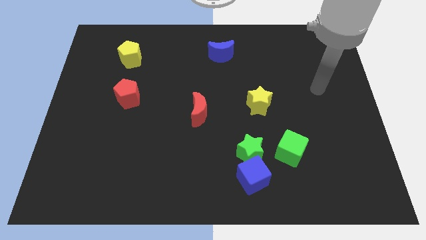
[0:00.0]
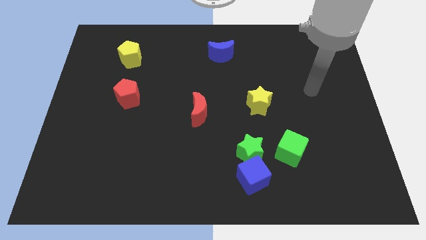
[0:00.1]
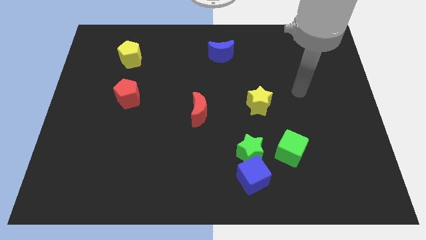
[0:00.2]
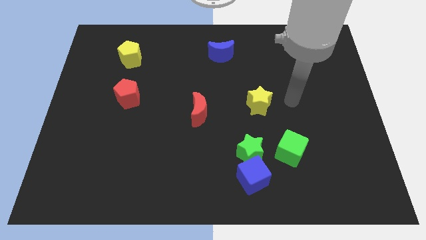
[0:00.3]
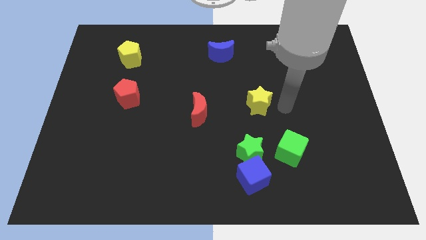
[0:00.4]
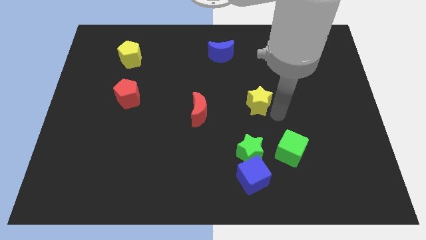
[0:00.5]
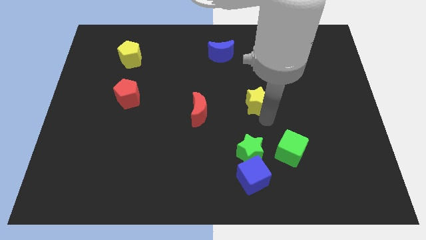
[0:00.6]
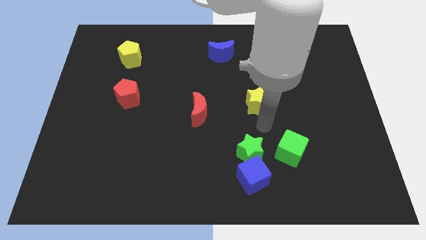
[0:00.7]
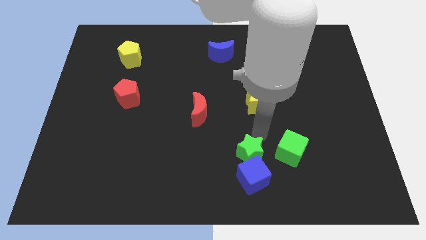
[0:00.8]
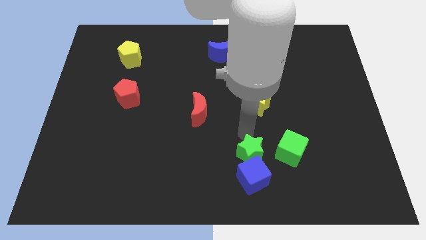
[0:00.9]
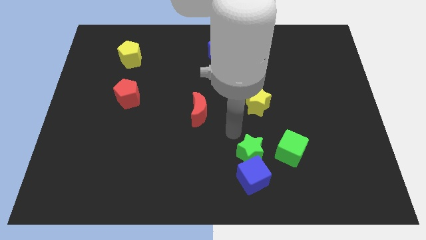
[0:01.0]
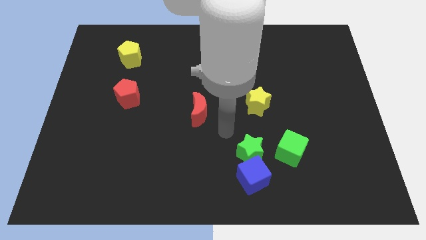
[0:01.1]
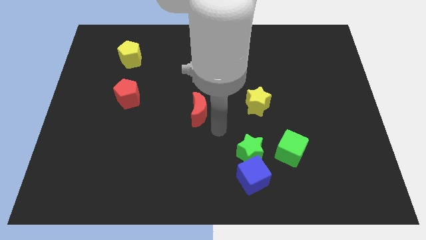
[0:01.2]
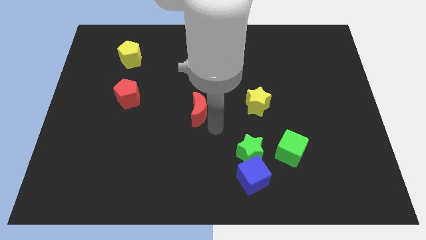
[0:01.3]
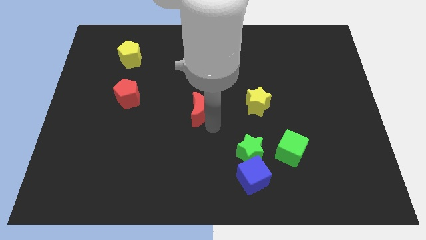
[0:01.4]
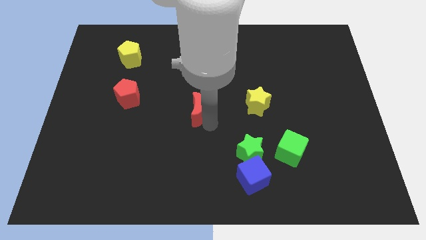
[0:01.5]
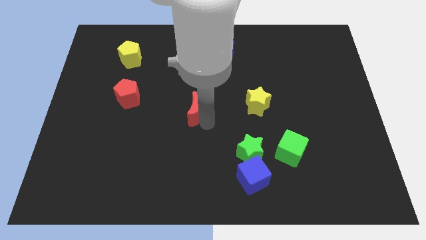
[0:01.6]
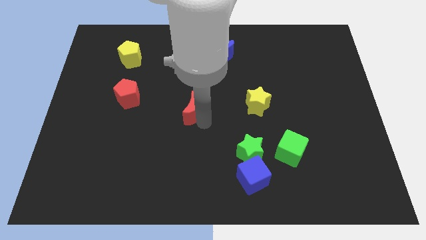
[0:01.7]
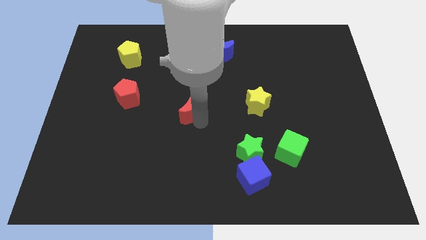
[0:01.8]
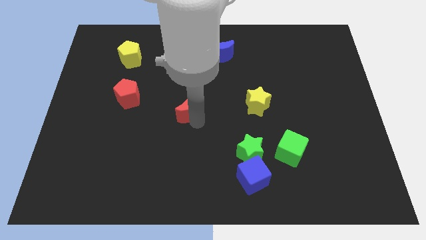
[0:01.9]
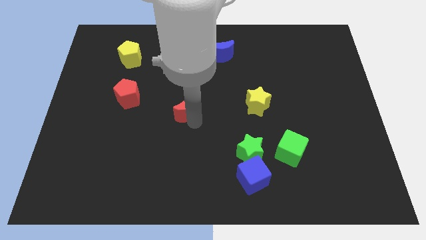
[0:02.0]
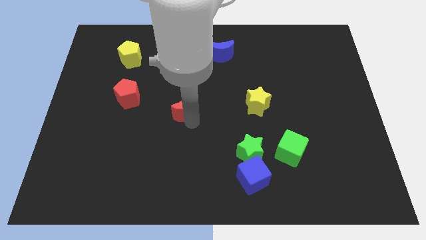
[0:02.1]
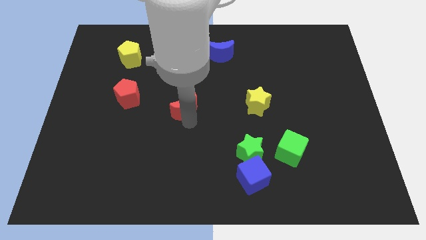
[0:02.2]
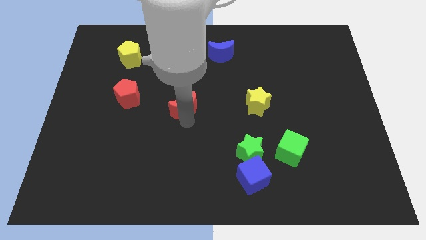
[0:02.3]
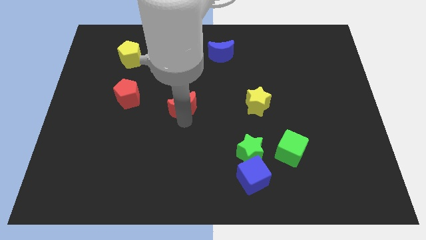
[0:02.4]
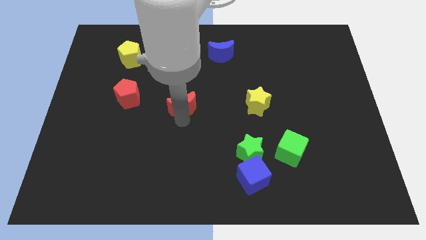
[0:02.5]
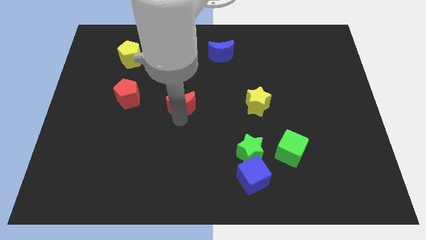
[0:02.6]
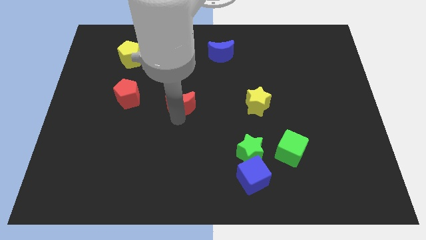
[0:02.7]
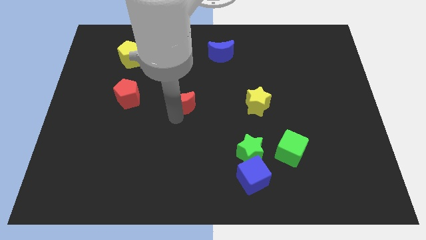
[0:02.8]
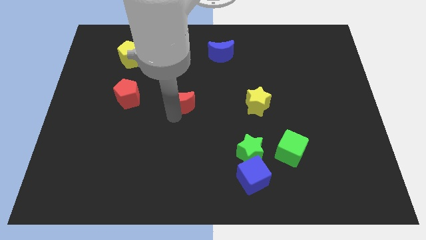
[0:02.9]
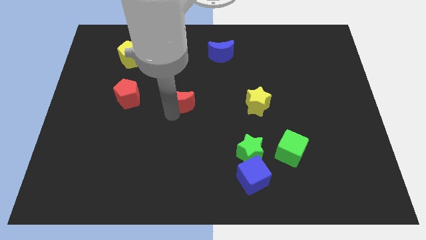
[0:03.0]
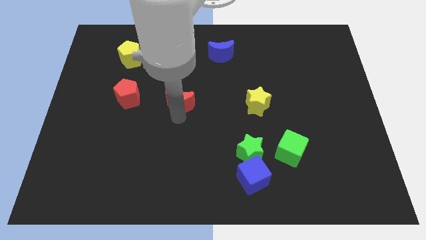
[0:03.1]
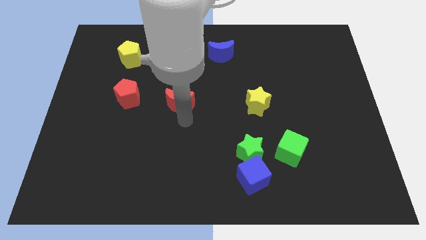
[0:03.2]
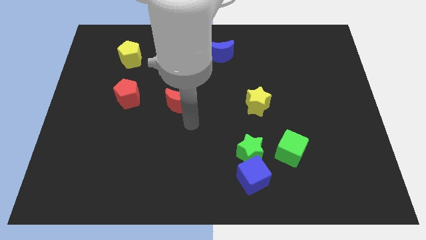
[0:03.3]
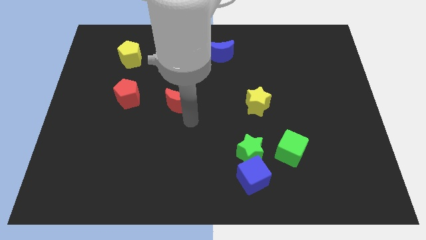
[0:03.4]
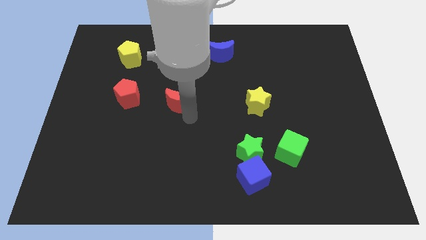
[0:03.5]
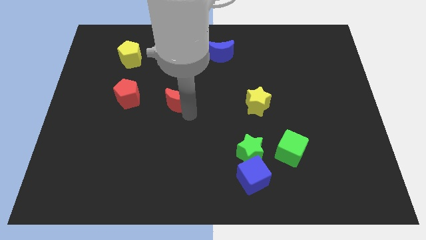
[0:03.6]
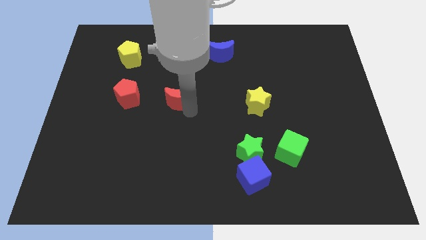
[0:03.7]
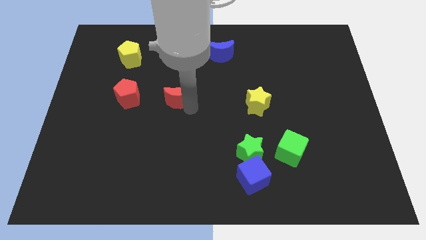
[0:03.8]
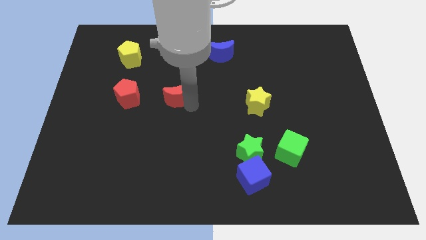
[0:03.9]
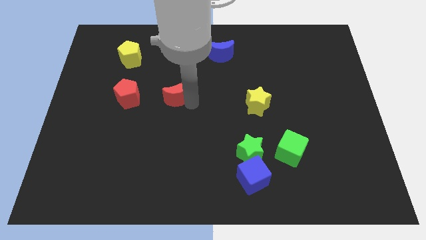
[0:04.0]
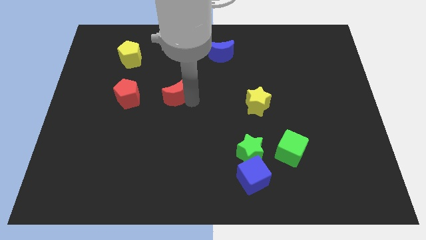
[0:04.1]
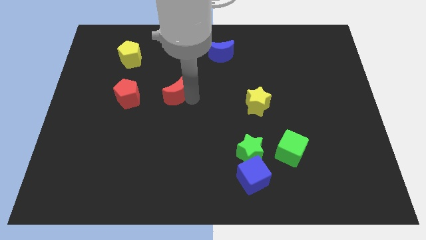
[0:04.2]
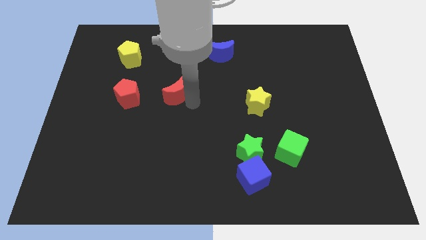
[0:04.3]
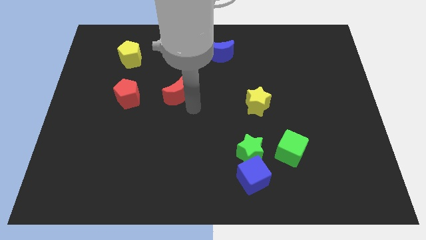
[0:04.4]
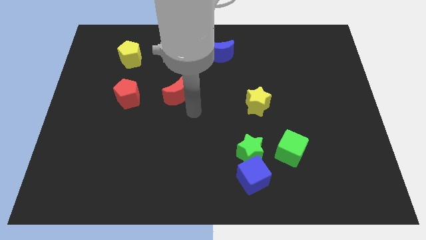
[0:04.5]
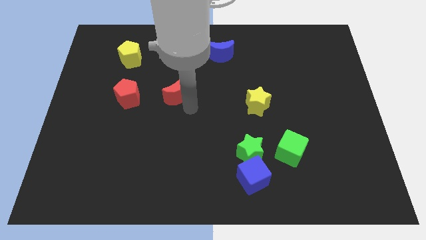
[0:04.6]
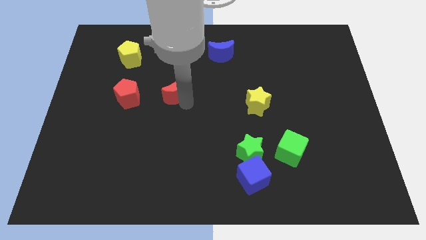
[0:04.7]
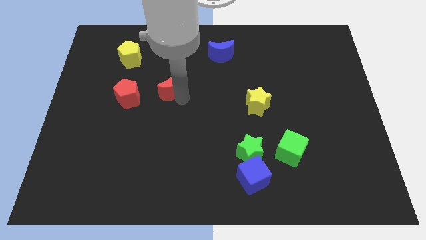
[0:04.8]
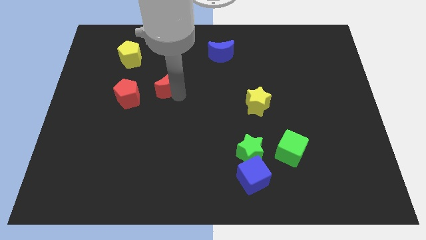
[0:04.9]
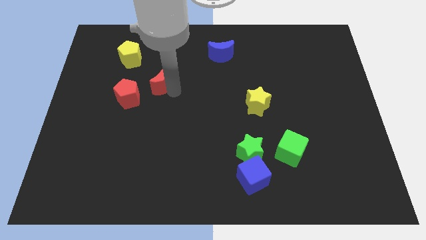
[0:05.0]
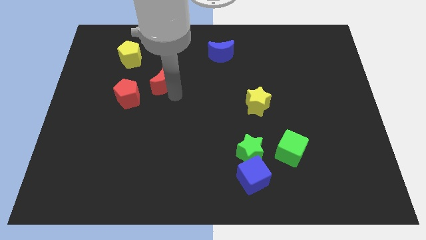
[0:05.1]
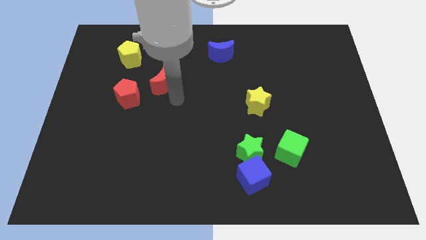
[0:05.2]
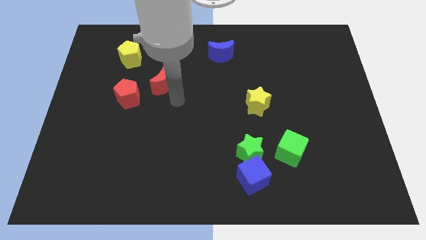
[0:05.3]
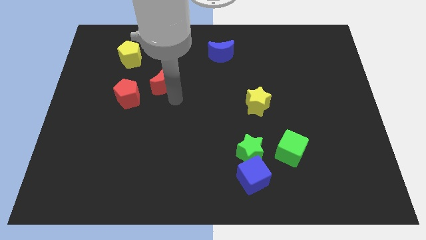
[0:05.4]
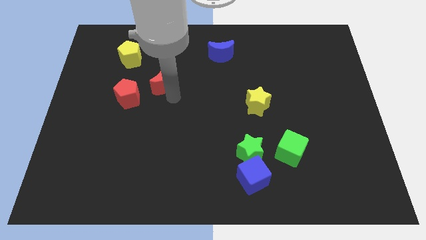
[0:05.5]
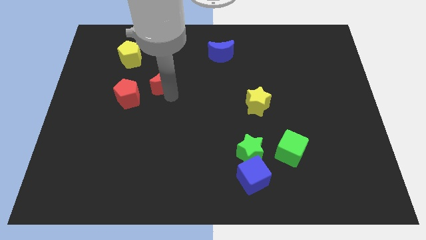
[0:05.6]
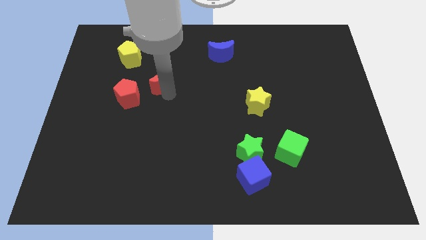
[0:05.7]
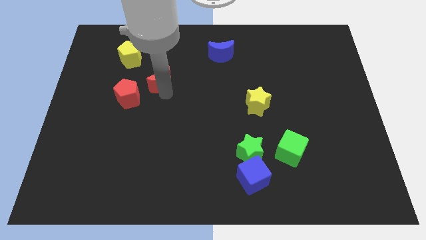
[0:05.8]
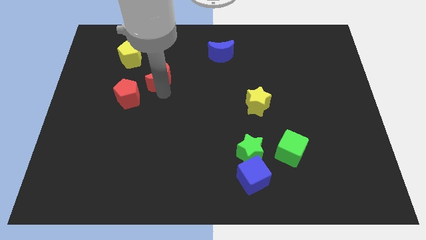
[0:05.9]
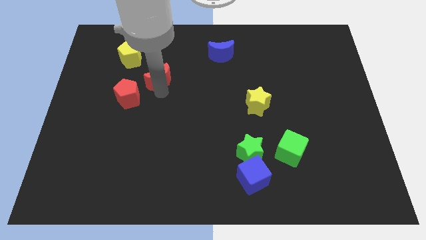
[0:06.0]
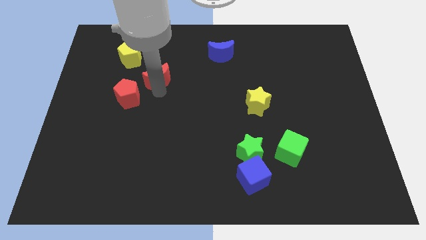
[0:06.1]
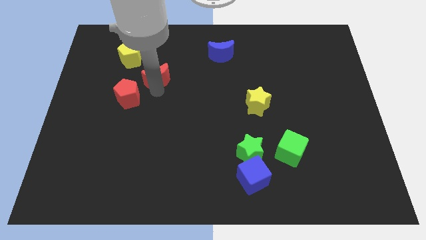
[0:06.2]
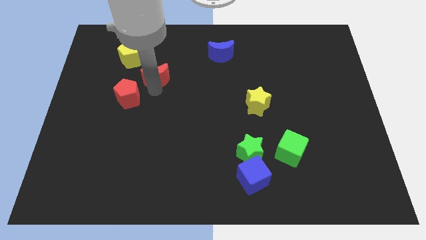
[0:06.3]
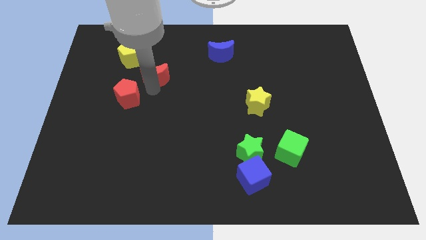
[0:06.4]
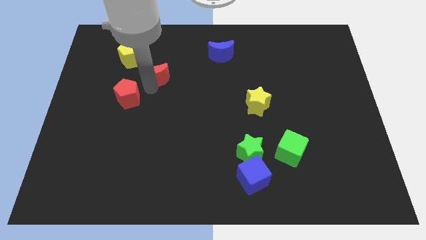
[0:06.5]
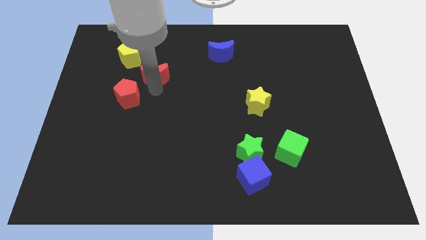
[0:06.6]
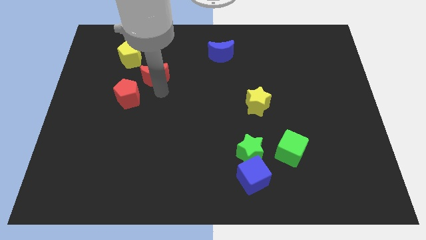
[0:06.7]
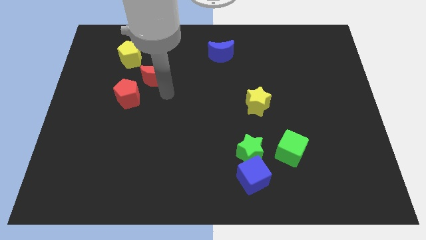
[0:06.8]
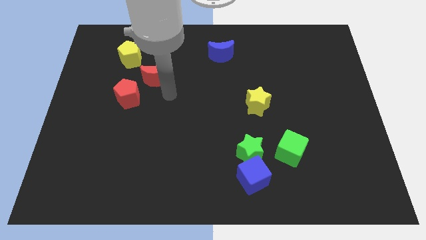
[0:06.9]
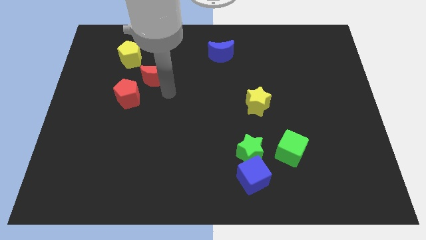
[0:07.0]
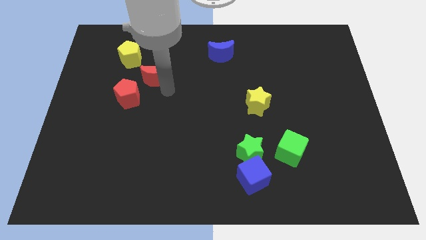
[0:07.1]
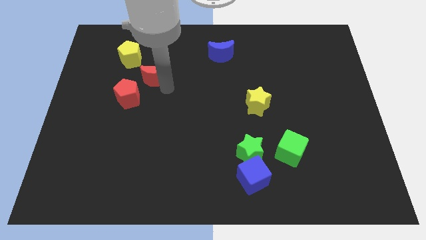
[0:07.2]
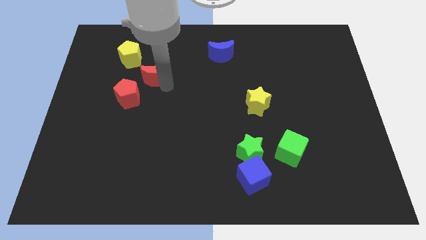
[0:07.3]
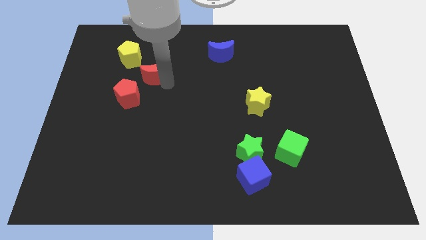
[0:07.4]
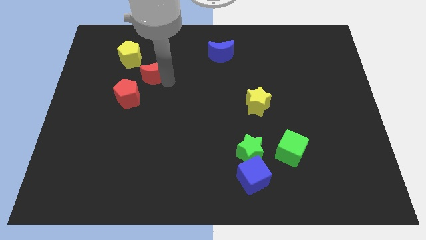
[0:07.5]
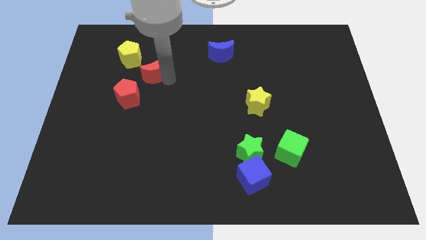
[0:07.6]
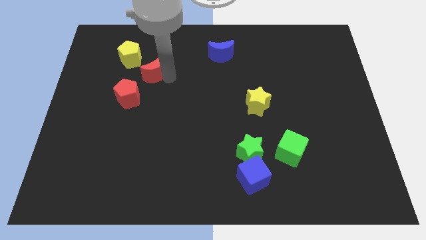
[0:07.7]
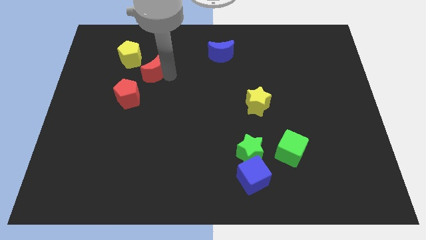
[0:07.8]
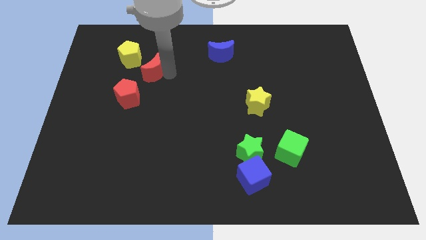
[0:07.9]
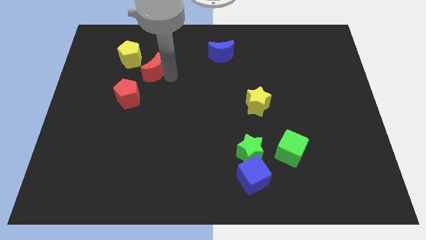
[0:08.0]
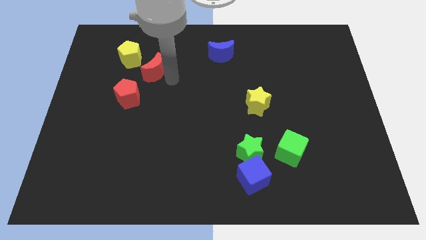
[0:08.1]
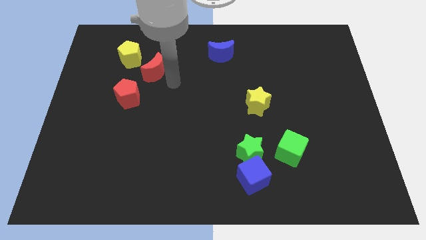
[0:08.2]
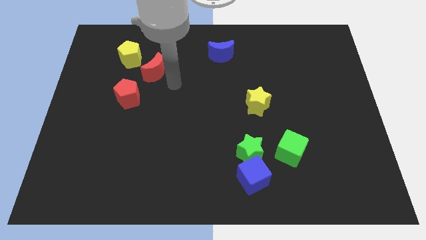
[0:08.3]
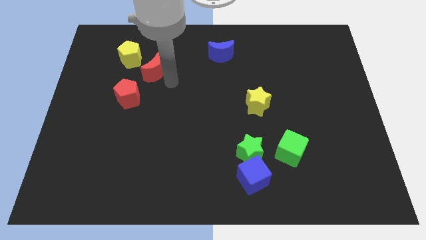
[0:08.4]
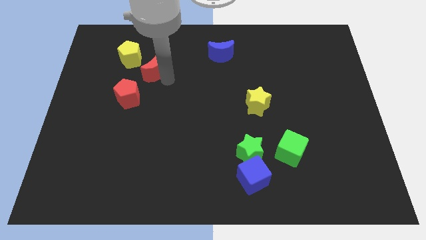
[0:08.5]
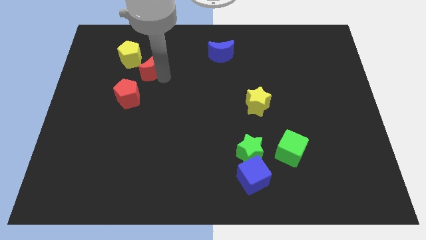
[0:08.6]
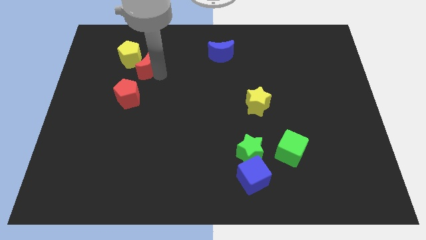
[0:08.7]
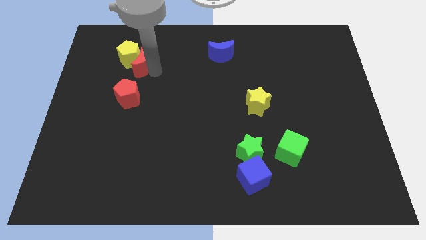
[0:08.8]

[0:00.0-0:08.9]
slide the red moon towards the yellow pentagon
